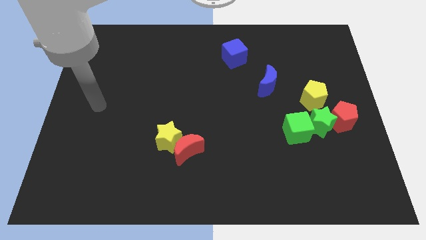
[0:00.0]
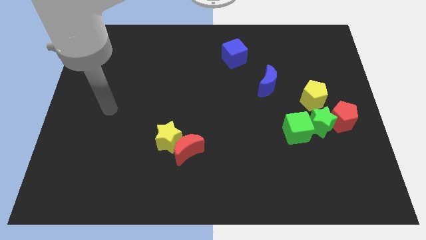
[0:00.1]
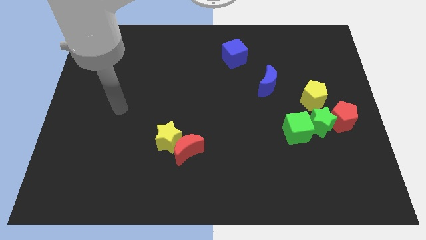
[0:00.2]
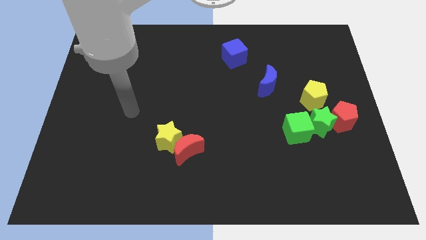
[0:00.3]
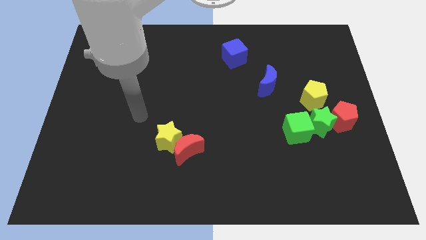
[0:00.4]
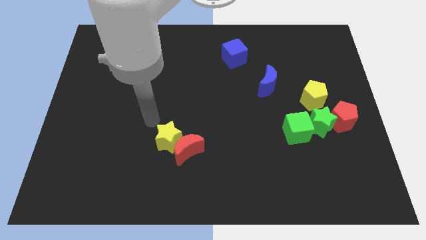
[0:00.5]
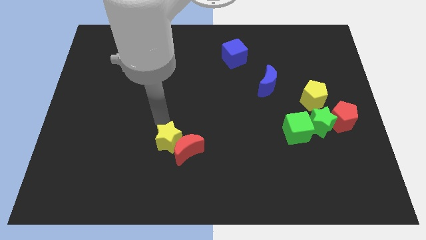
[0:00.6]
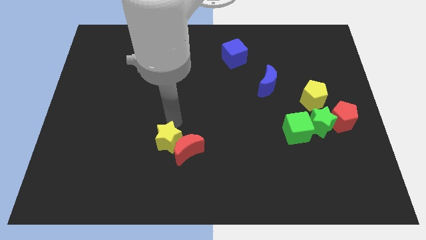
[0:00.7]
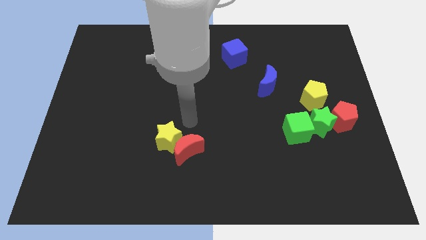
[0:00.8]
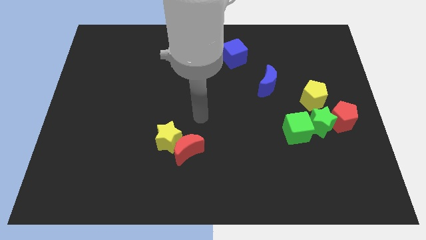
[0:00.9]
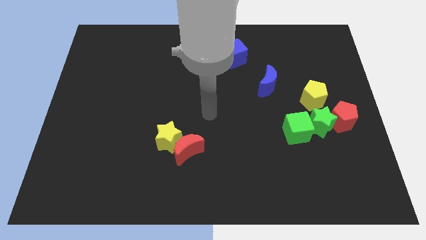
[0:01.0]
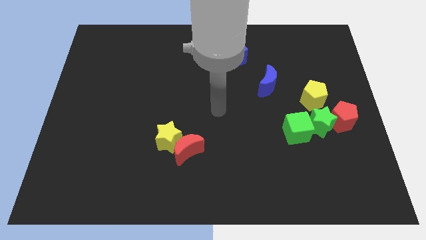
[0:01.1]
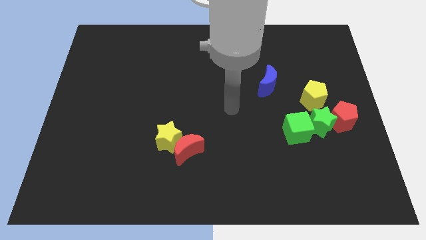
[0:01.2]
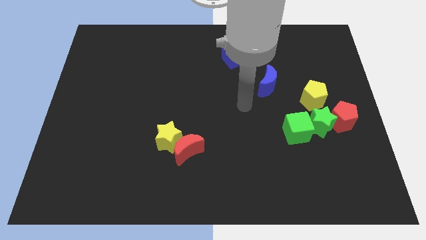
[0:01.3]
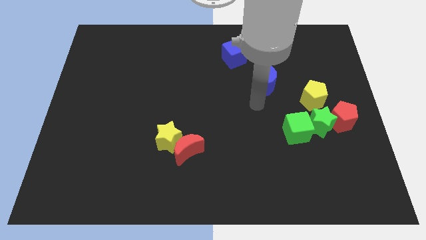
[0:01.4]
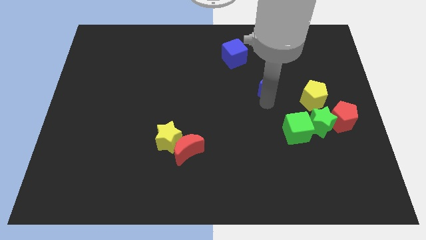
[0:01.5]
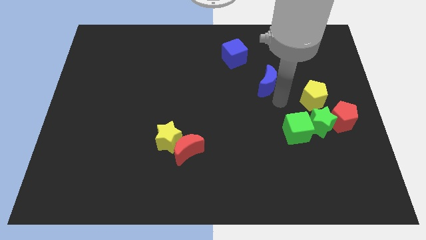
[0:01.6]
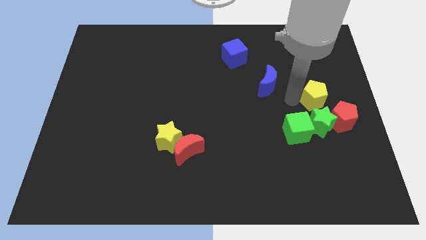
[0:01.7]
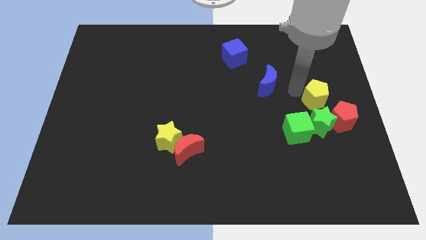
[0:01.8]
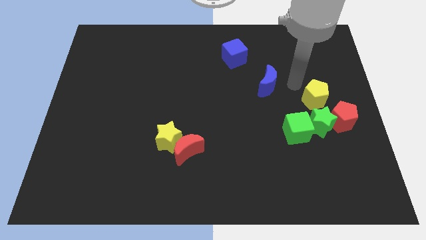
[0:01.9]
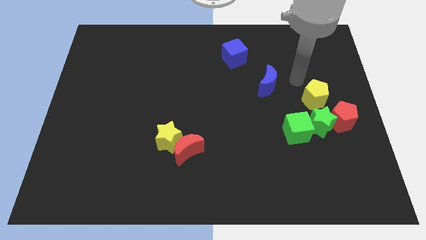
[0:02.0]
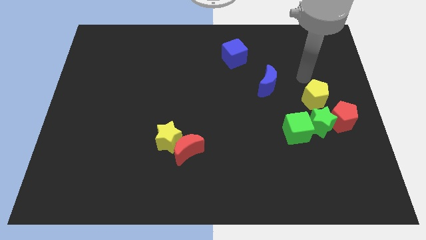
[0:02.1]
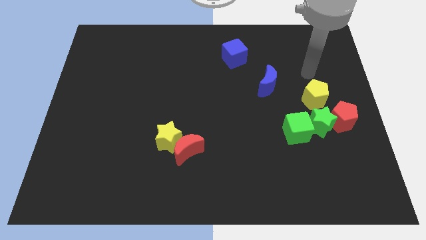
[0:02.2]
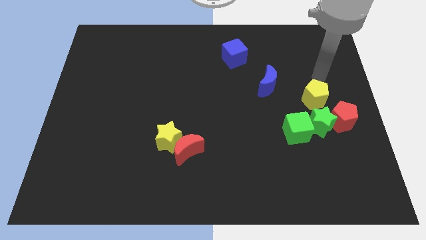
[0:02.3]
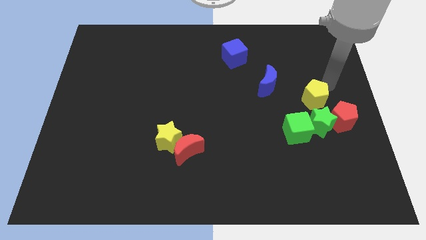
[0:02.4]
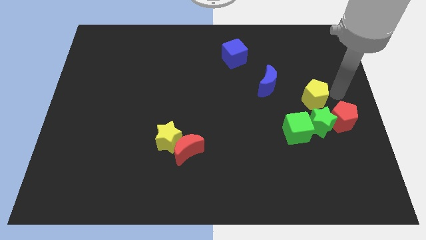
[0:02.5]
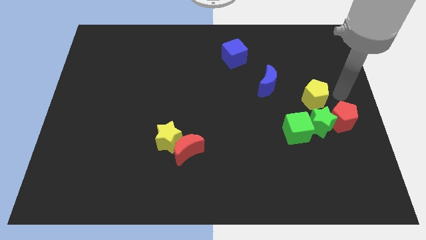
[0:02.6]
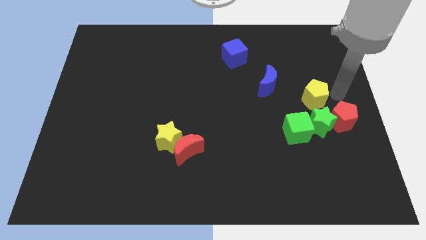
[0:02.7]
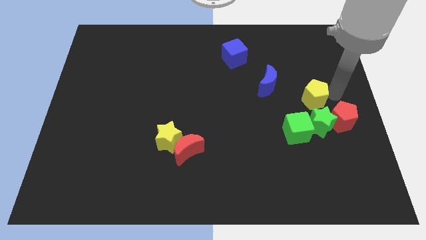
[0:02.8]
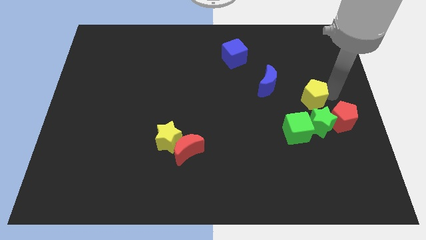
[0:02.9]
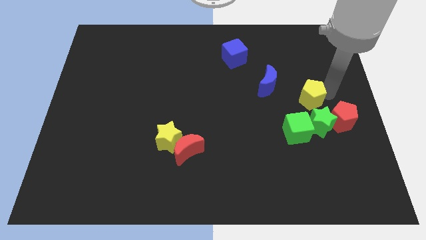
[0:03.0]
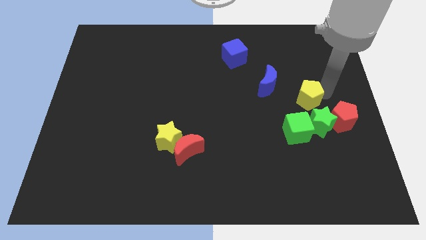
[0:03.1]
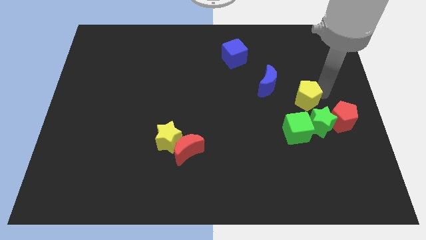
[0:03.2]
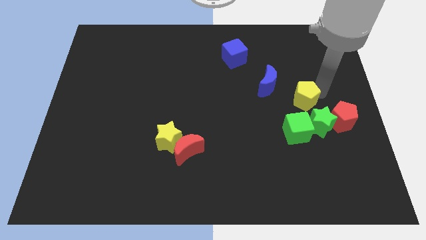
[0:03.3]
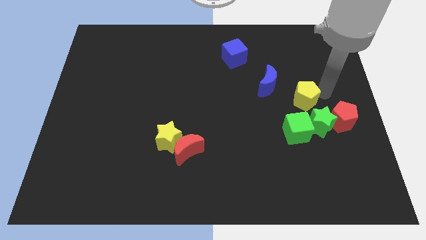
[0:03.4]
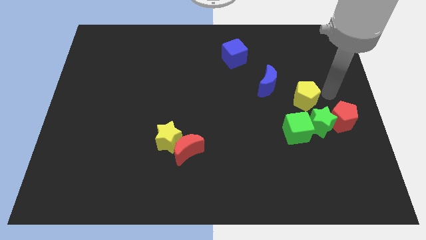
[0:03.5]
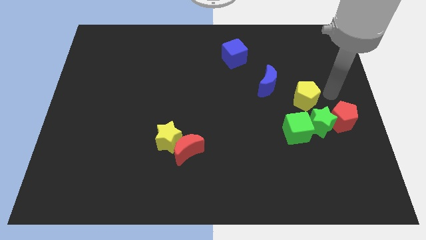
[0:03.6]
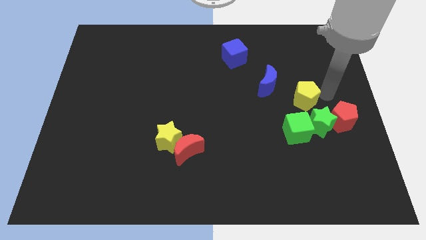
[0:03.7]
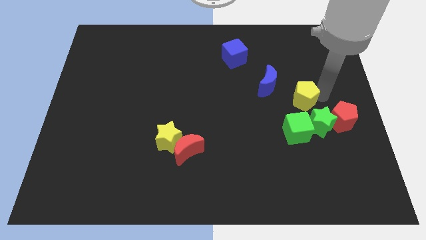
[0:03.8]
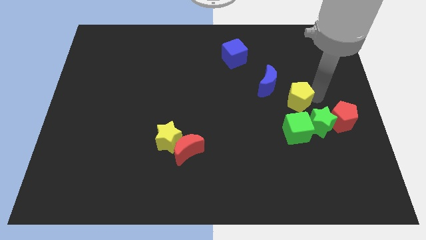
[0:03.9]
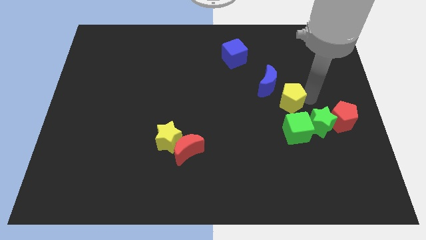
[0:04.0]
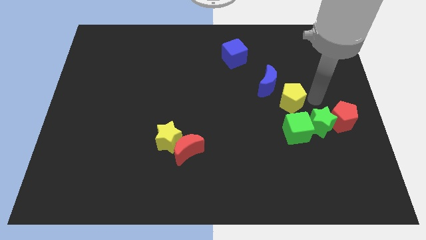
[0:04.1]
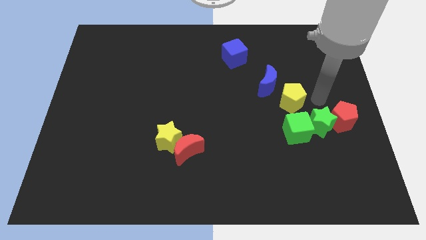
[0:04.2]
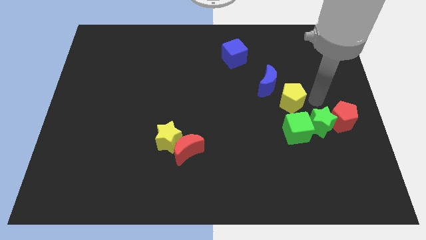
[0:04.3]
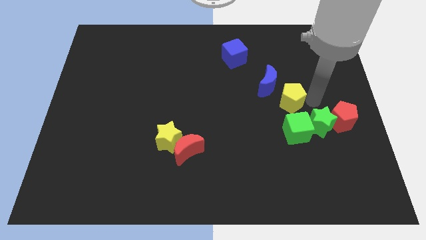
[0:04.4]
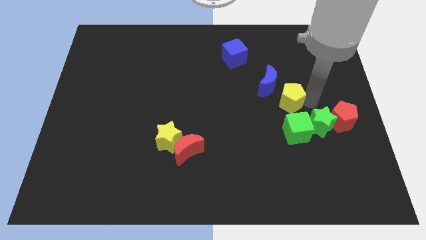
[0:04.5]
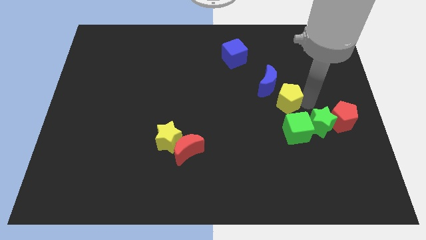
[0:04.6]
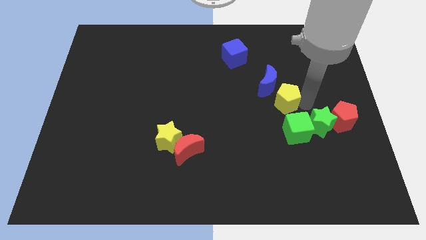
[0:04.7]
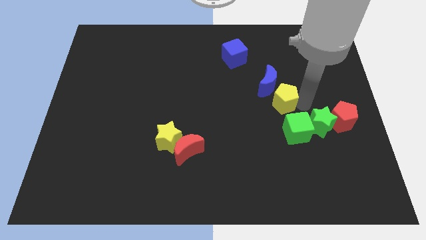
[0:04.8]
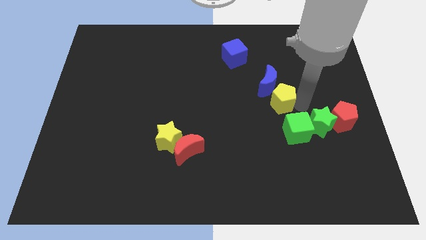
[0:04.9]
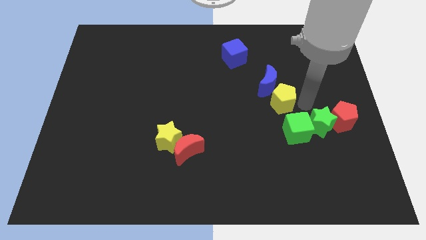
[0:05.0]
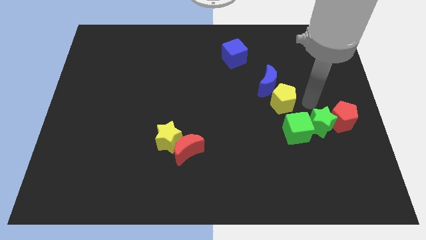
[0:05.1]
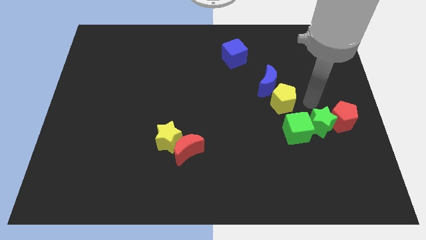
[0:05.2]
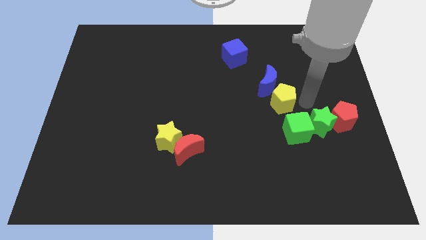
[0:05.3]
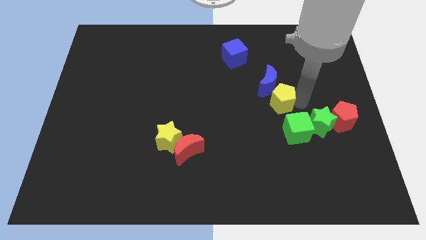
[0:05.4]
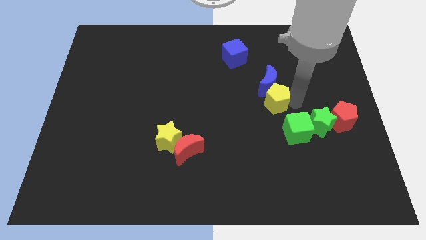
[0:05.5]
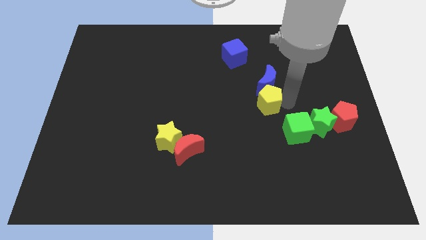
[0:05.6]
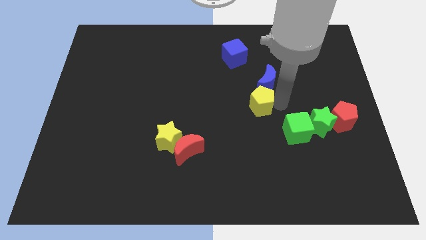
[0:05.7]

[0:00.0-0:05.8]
move the yellow pentagon to the middle of the board
